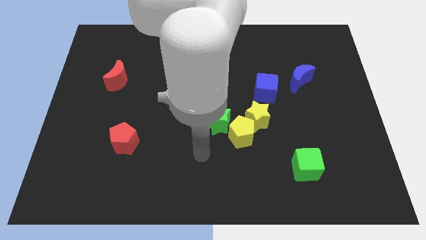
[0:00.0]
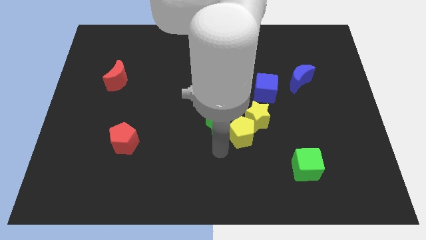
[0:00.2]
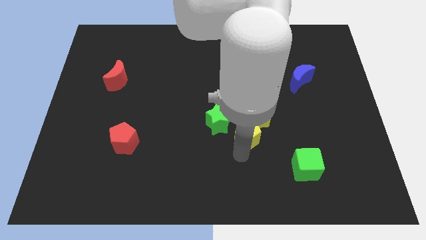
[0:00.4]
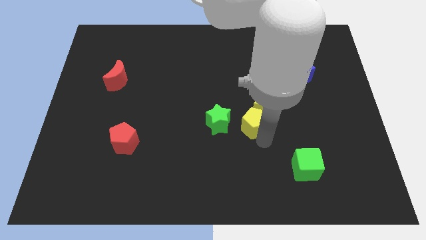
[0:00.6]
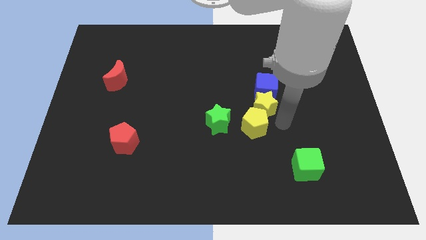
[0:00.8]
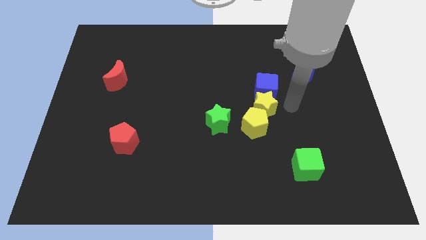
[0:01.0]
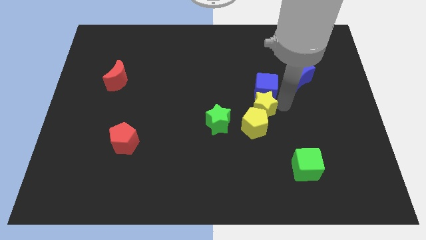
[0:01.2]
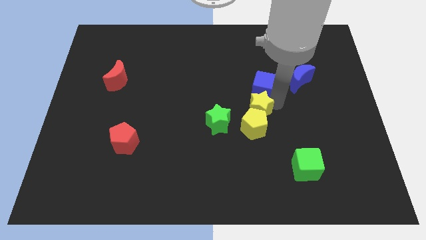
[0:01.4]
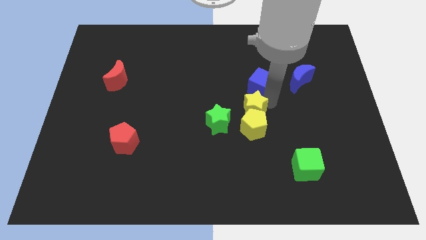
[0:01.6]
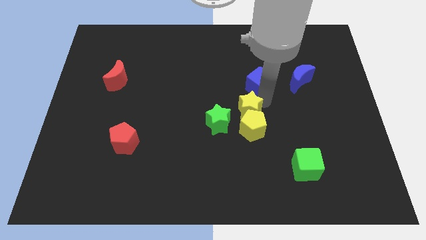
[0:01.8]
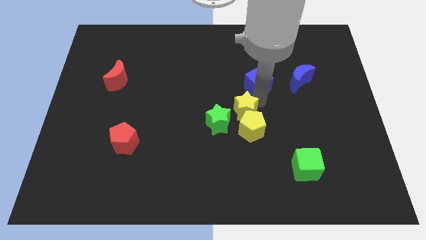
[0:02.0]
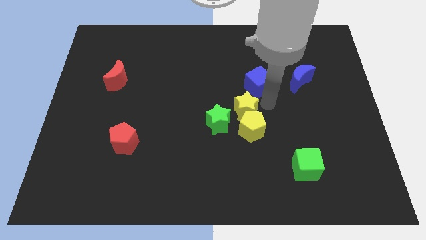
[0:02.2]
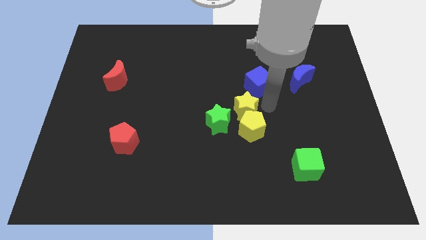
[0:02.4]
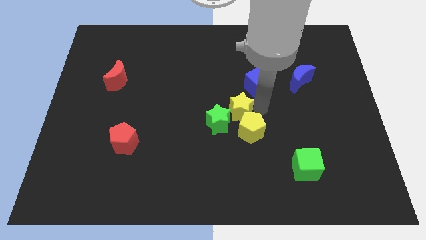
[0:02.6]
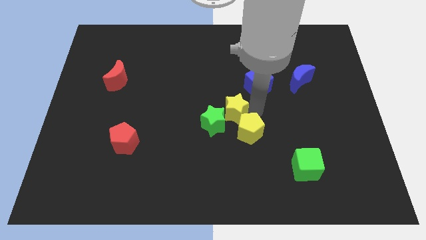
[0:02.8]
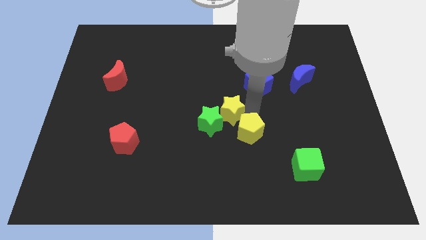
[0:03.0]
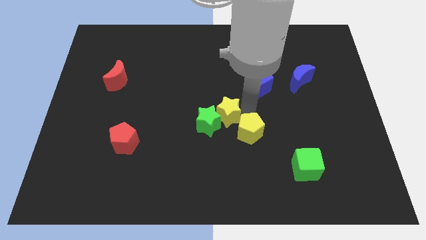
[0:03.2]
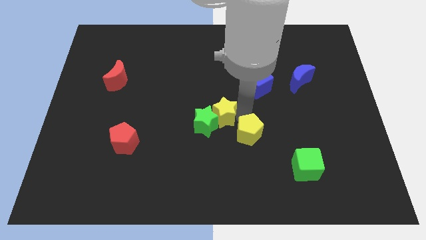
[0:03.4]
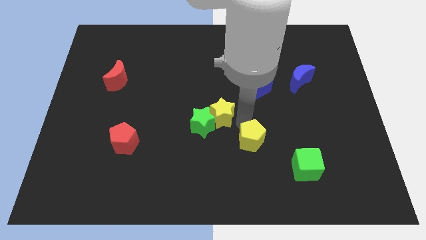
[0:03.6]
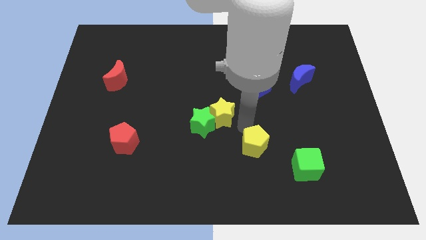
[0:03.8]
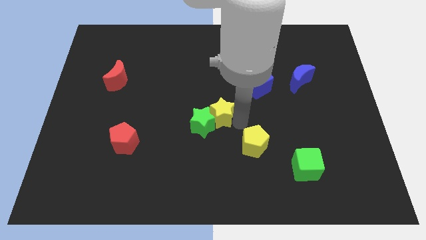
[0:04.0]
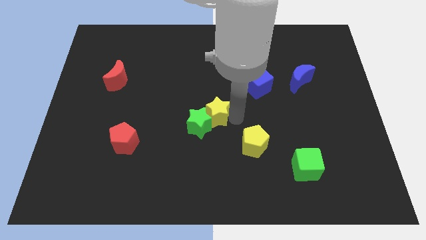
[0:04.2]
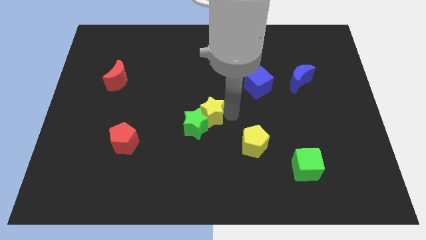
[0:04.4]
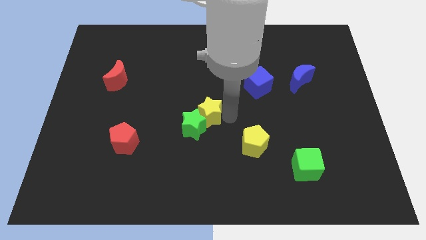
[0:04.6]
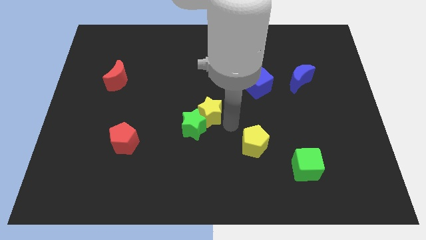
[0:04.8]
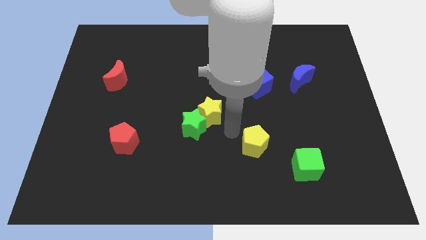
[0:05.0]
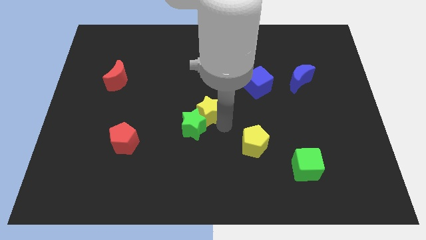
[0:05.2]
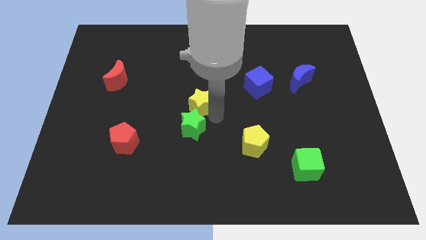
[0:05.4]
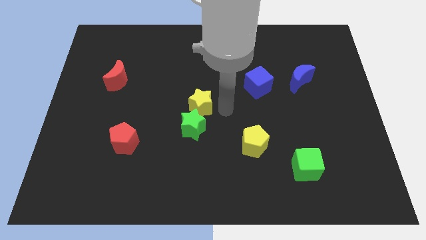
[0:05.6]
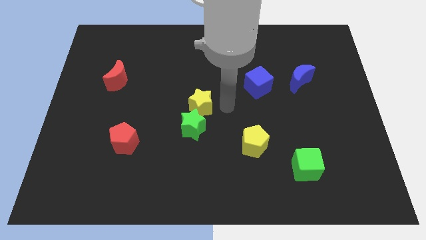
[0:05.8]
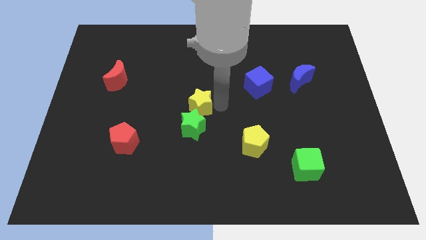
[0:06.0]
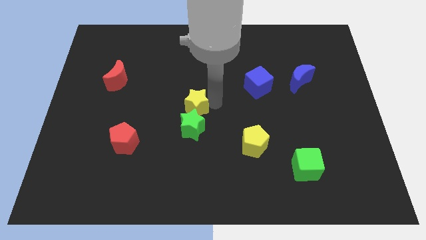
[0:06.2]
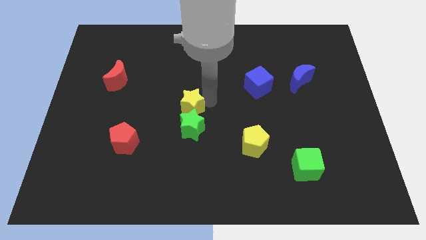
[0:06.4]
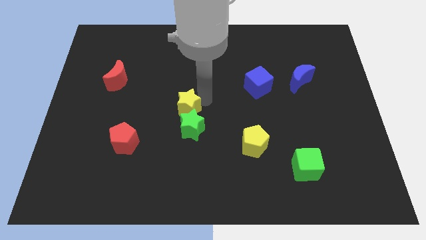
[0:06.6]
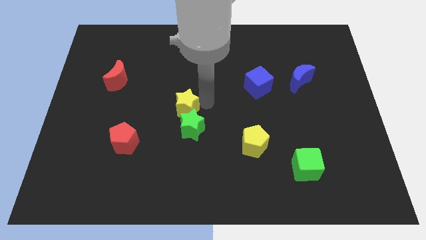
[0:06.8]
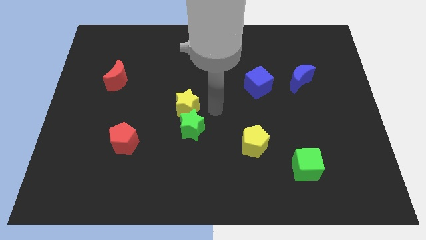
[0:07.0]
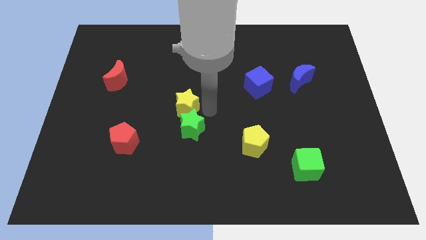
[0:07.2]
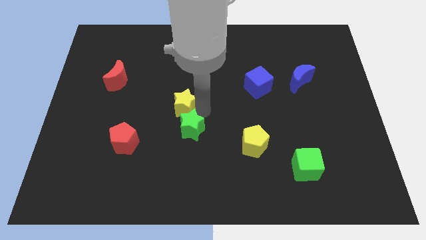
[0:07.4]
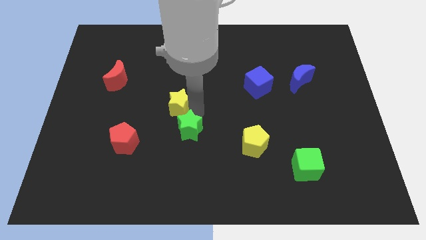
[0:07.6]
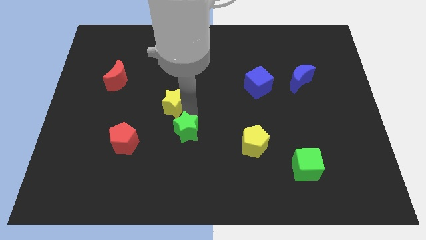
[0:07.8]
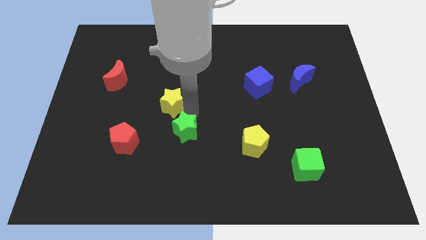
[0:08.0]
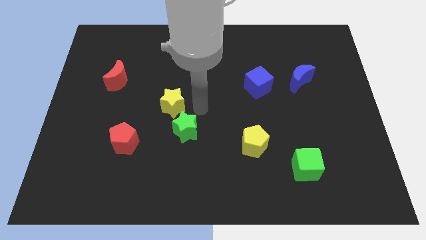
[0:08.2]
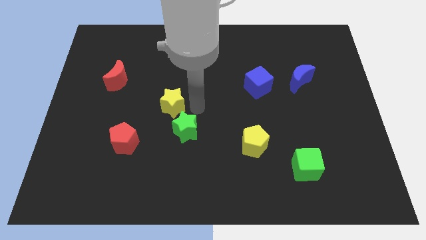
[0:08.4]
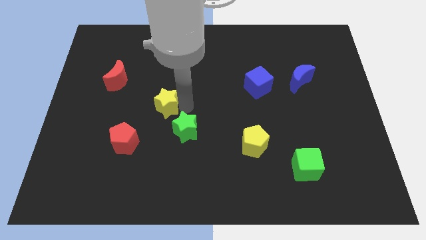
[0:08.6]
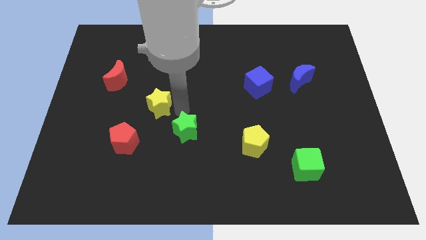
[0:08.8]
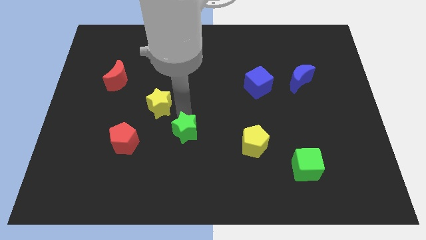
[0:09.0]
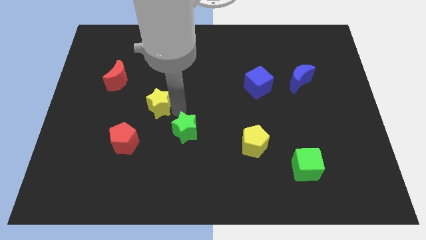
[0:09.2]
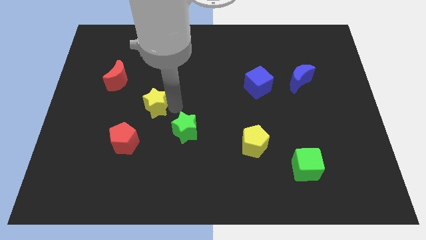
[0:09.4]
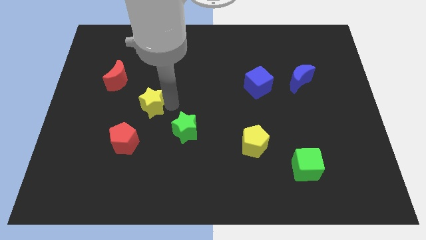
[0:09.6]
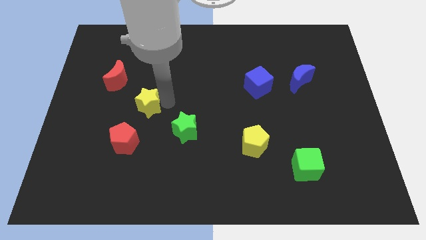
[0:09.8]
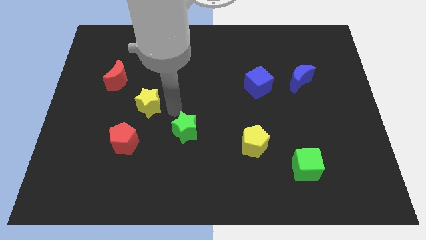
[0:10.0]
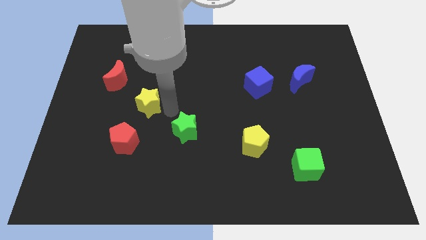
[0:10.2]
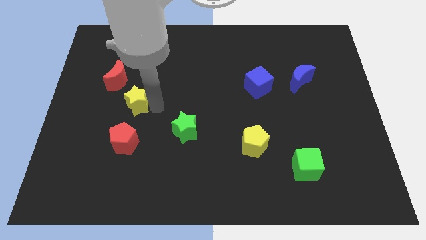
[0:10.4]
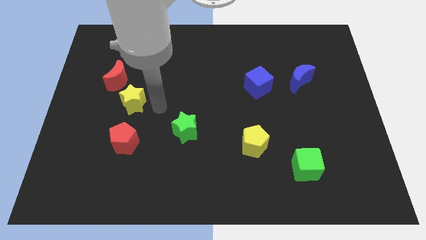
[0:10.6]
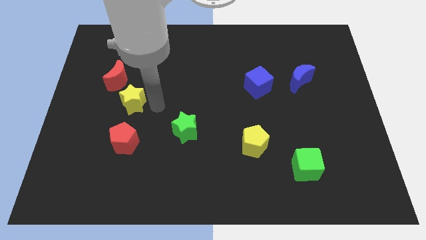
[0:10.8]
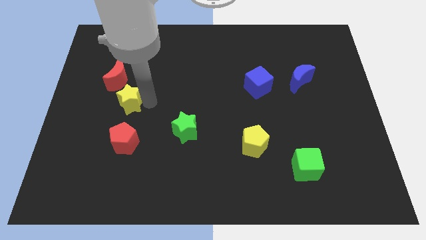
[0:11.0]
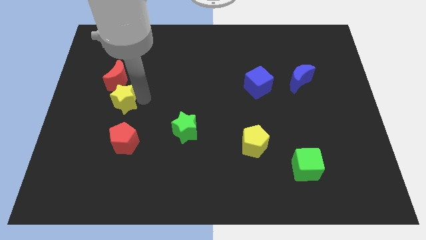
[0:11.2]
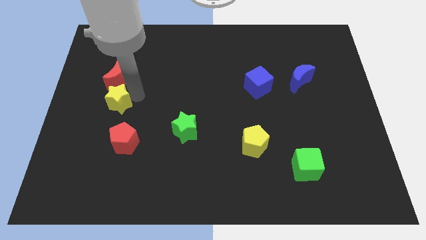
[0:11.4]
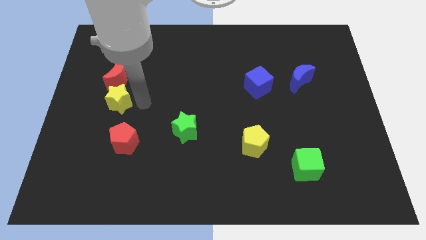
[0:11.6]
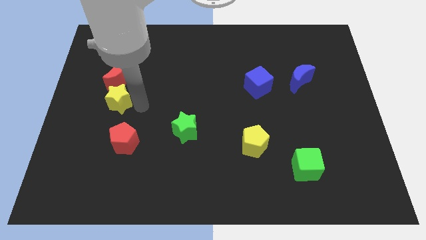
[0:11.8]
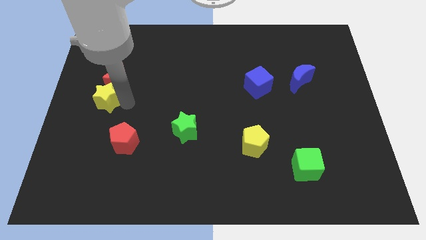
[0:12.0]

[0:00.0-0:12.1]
move the yellow star to the bottom left side of the red moon
